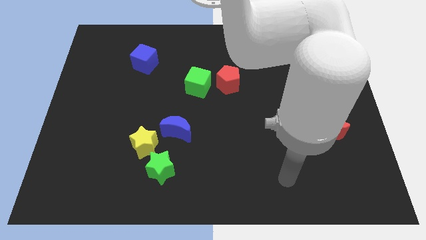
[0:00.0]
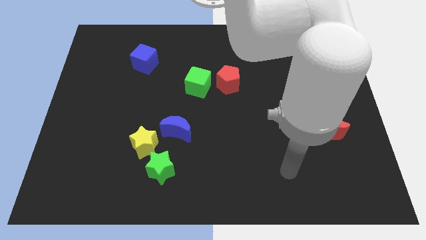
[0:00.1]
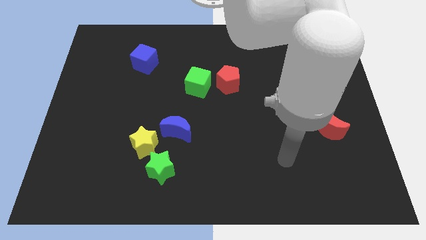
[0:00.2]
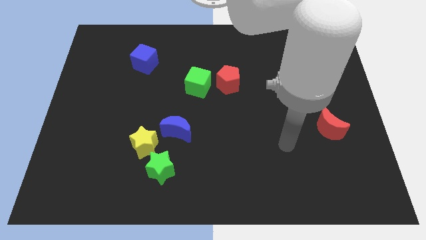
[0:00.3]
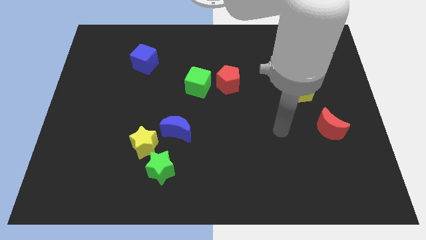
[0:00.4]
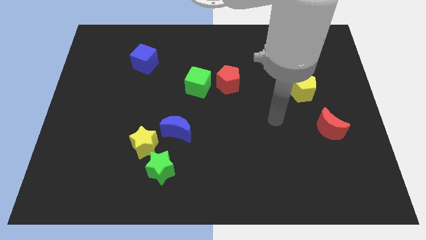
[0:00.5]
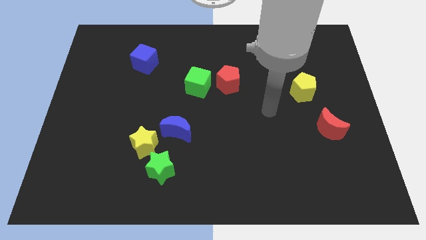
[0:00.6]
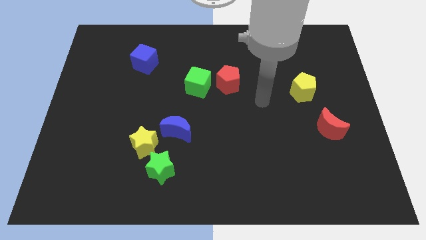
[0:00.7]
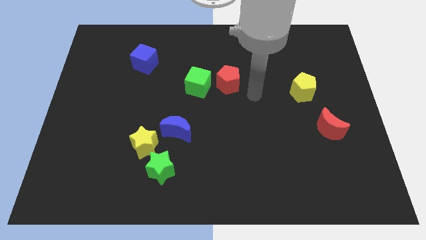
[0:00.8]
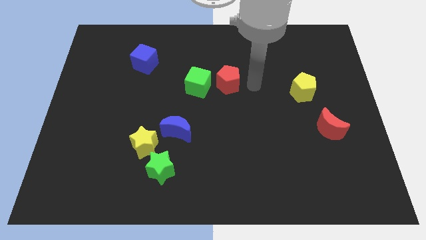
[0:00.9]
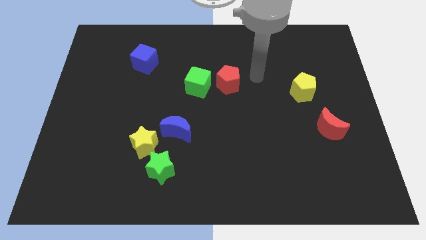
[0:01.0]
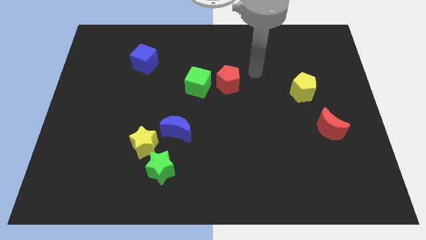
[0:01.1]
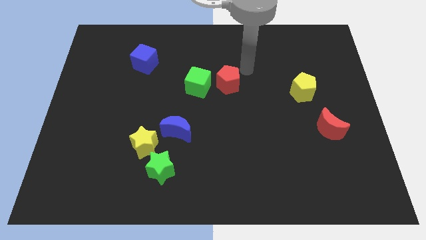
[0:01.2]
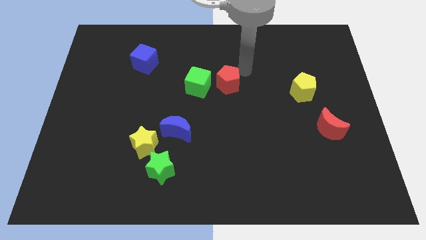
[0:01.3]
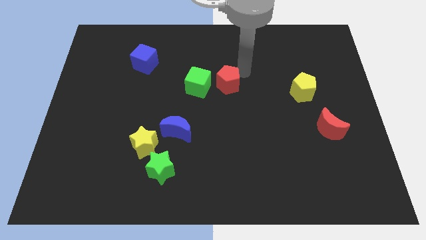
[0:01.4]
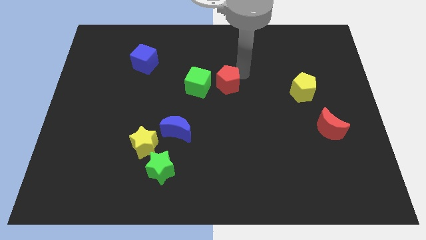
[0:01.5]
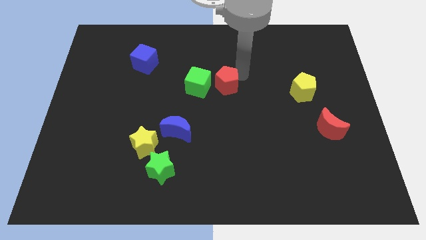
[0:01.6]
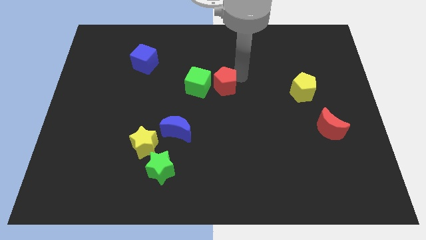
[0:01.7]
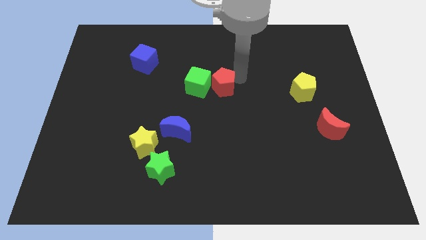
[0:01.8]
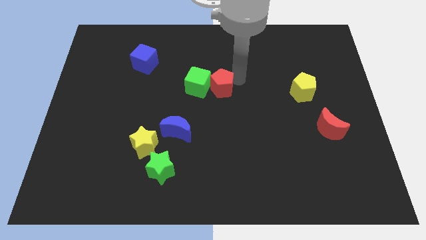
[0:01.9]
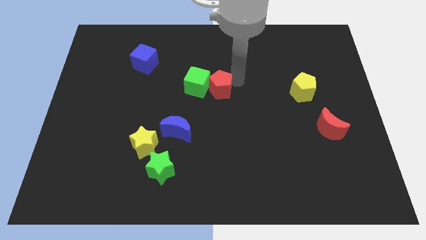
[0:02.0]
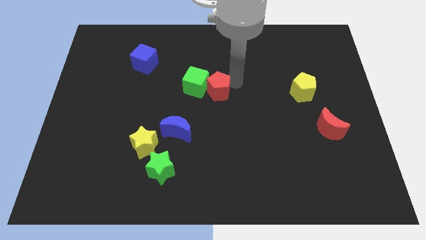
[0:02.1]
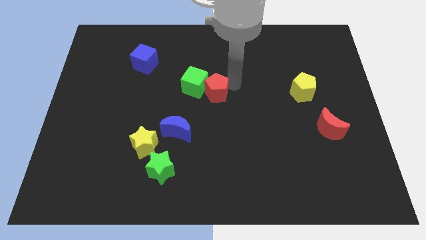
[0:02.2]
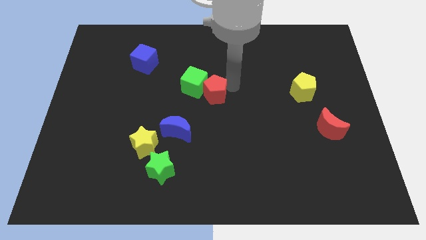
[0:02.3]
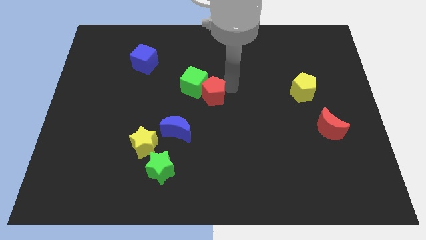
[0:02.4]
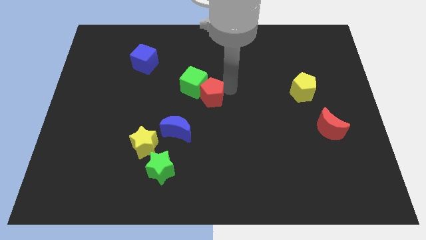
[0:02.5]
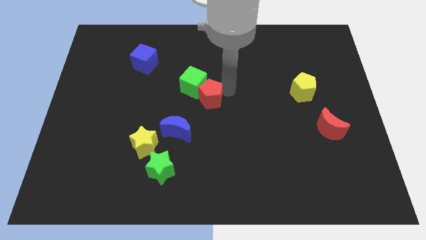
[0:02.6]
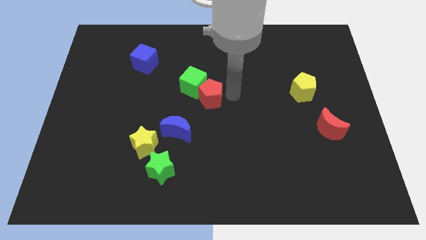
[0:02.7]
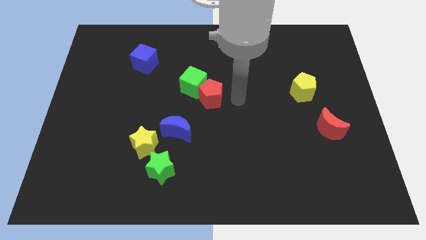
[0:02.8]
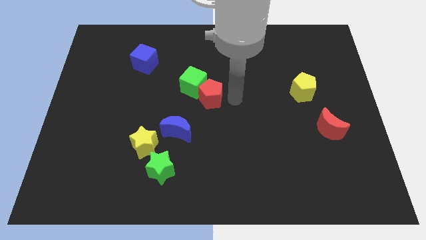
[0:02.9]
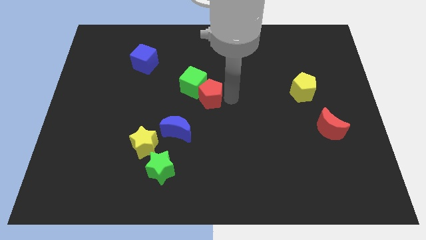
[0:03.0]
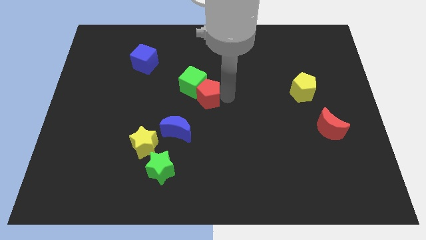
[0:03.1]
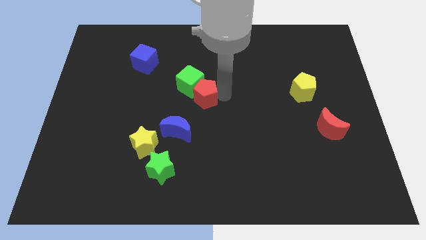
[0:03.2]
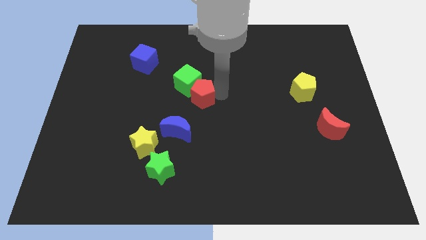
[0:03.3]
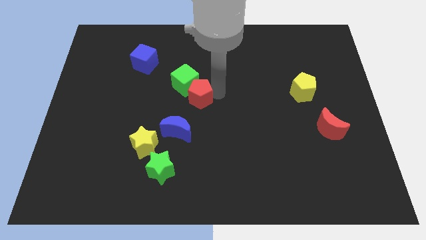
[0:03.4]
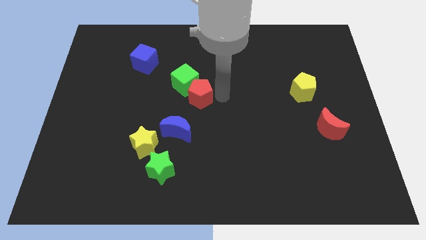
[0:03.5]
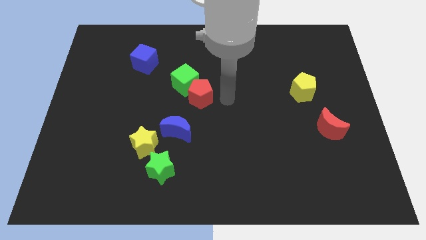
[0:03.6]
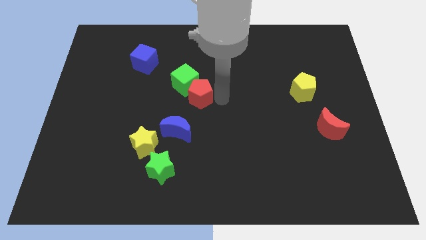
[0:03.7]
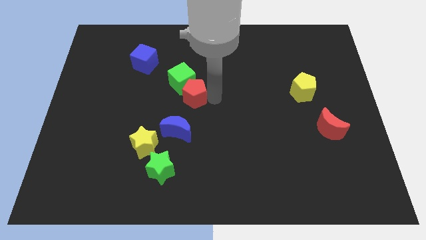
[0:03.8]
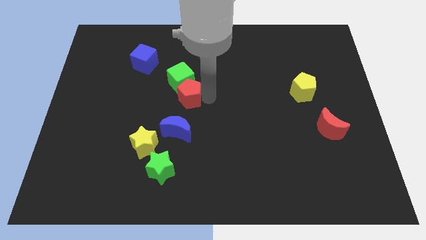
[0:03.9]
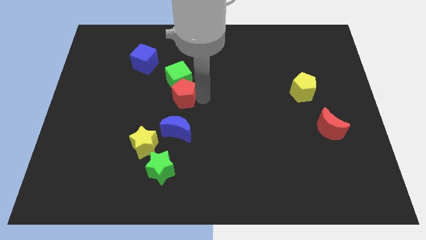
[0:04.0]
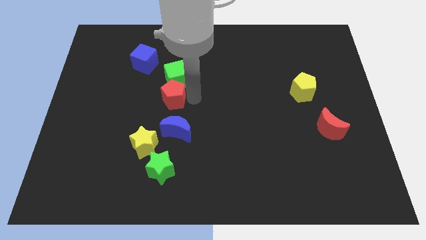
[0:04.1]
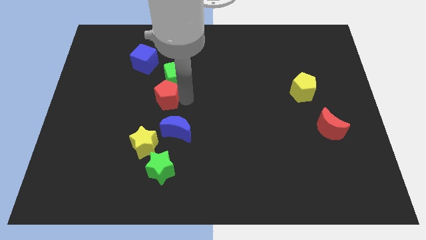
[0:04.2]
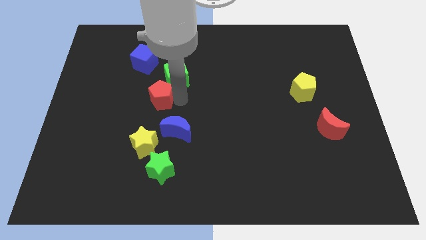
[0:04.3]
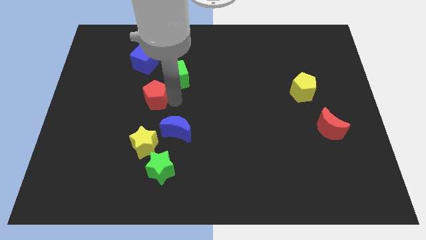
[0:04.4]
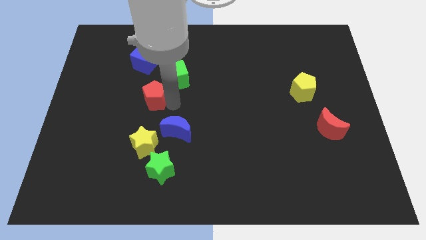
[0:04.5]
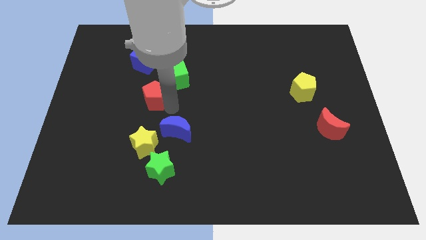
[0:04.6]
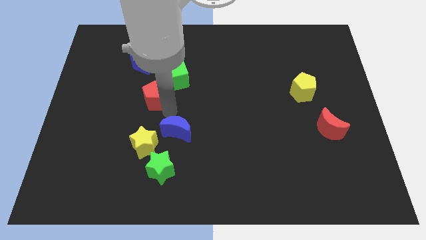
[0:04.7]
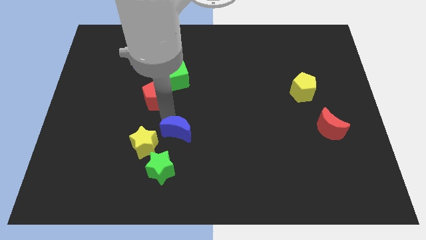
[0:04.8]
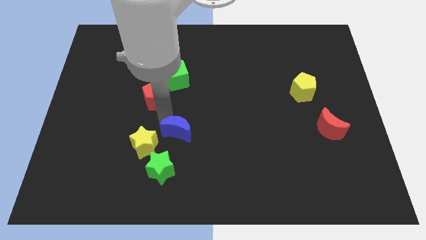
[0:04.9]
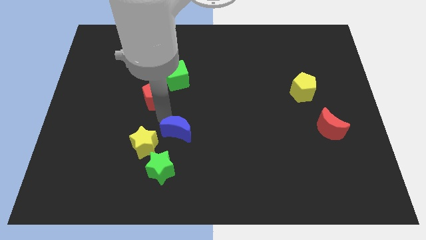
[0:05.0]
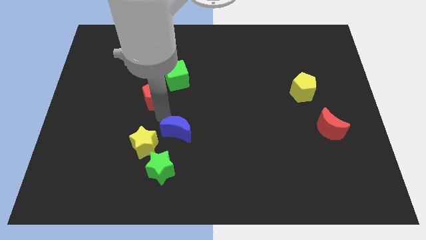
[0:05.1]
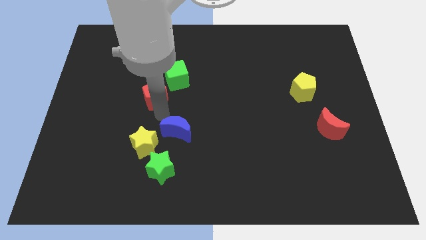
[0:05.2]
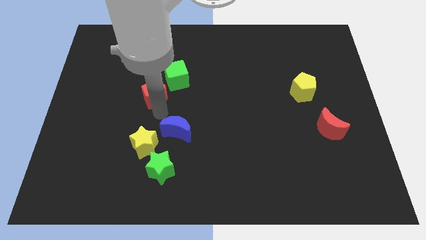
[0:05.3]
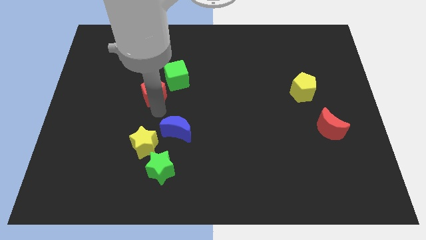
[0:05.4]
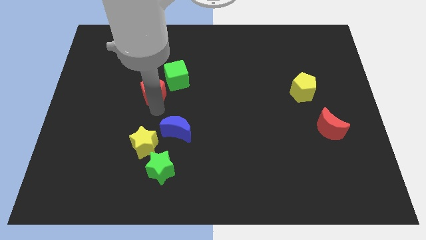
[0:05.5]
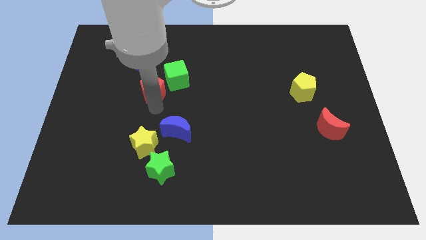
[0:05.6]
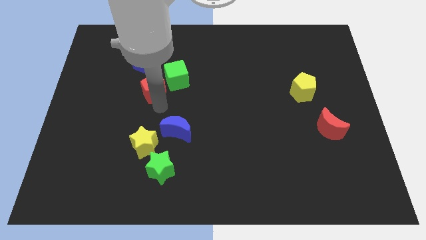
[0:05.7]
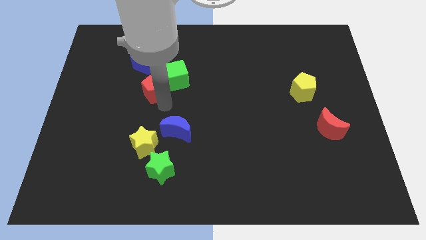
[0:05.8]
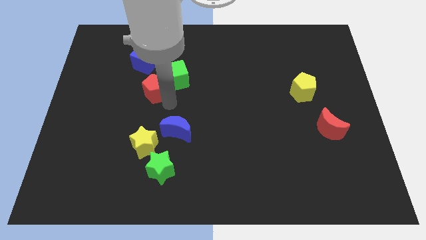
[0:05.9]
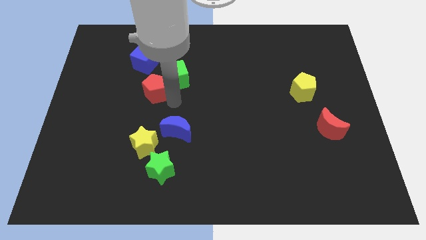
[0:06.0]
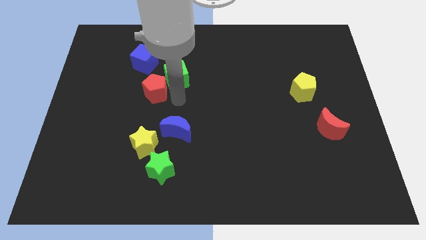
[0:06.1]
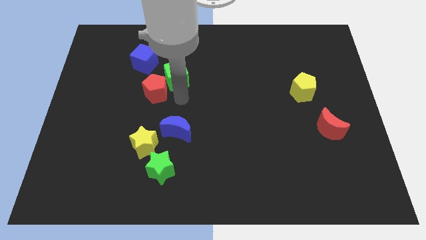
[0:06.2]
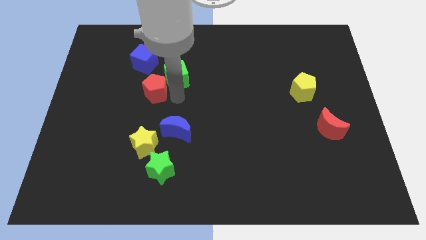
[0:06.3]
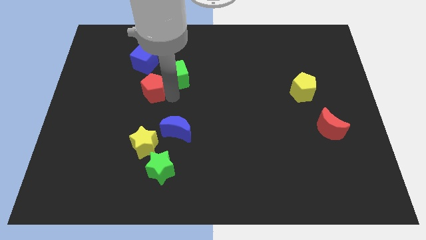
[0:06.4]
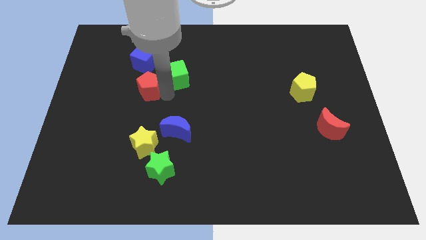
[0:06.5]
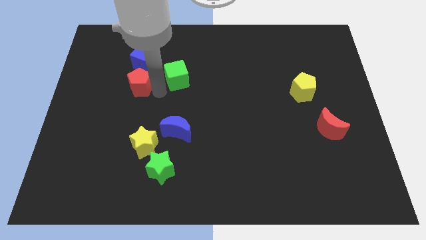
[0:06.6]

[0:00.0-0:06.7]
push the red pentagon to the left

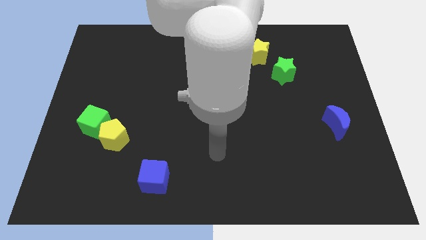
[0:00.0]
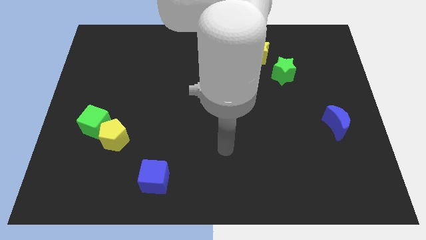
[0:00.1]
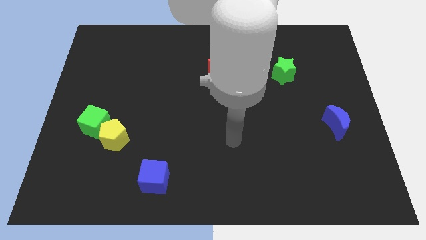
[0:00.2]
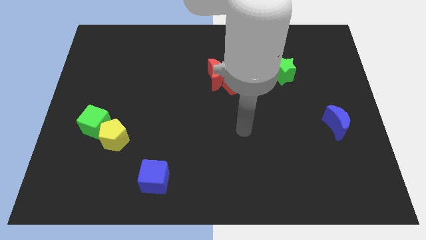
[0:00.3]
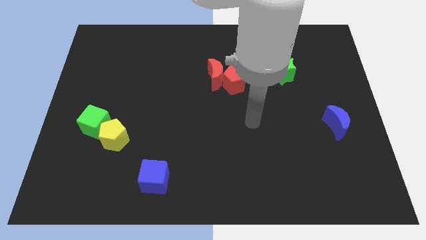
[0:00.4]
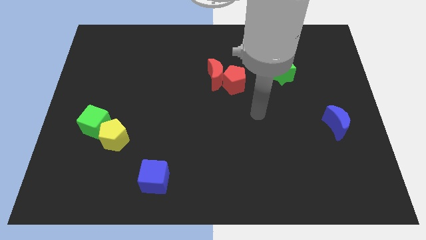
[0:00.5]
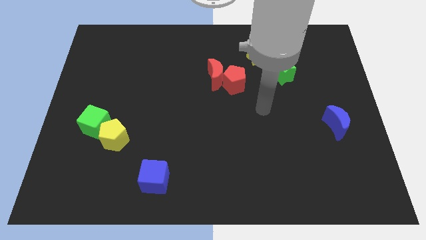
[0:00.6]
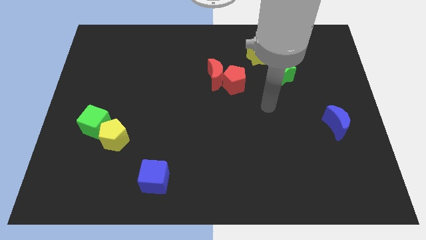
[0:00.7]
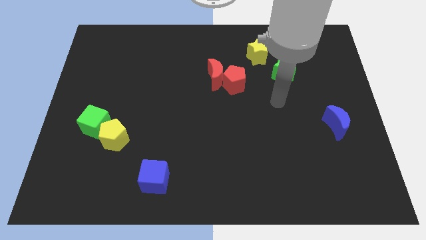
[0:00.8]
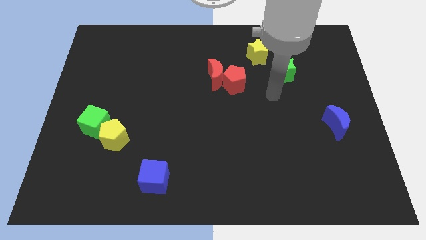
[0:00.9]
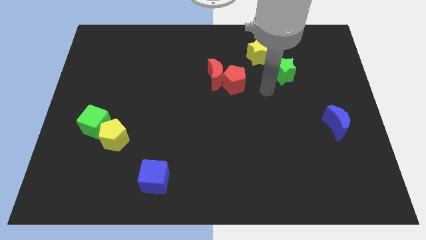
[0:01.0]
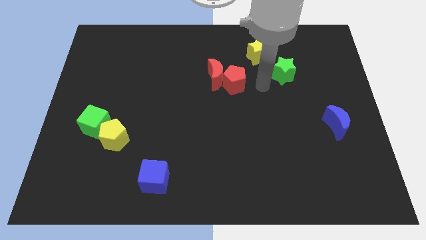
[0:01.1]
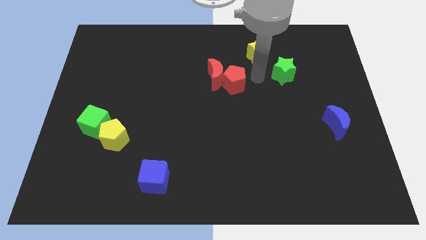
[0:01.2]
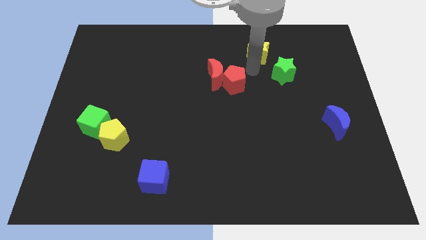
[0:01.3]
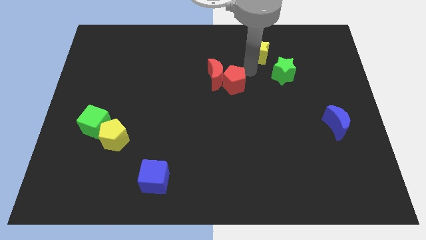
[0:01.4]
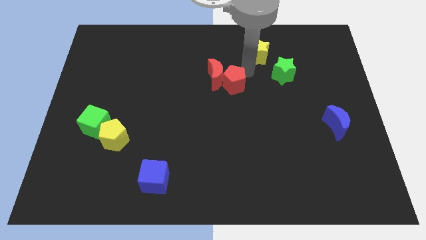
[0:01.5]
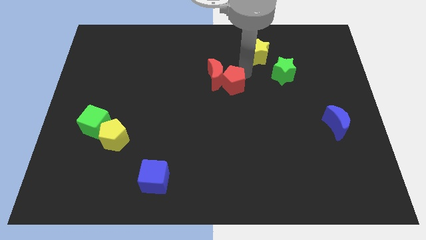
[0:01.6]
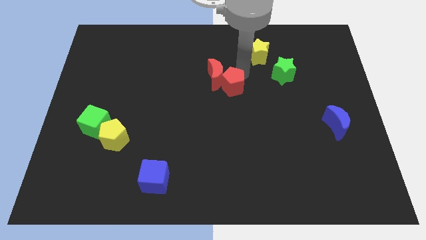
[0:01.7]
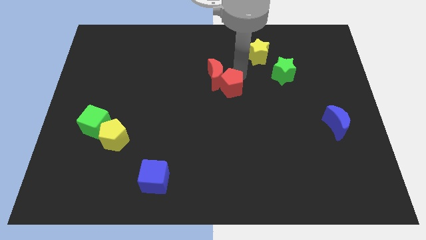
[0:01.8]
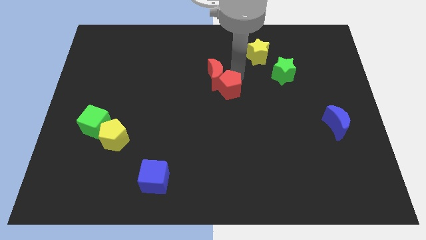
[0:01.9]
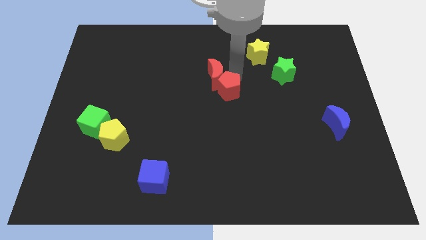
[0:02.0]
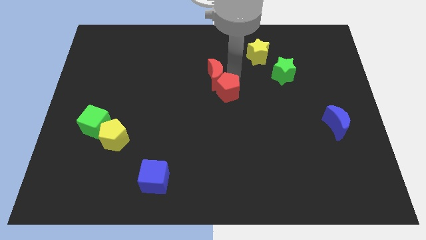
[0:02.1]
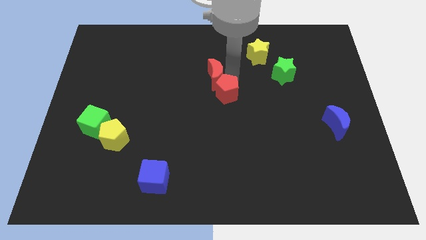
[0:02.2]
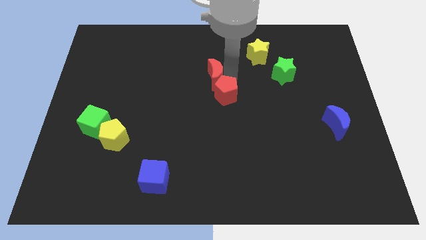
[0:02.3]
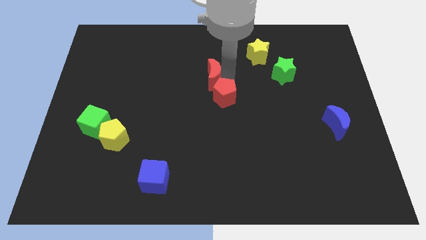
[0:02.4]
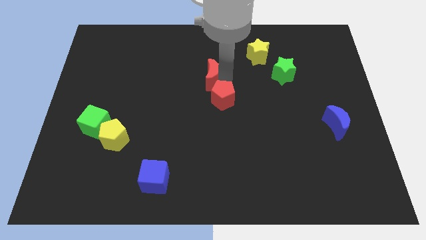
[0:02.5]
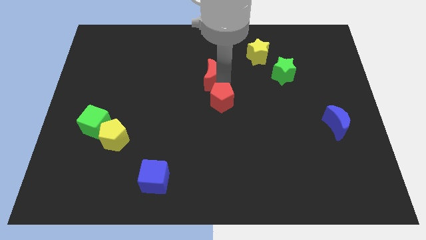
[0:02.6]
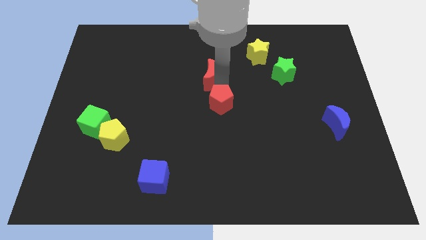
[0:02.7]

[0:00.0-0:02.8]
move the red pentagon a little bit downwards and then to the left
